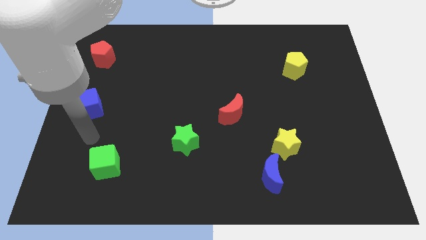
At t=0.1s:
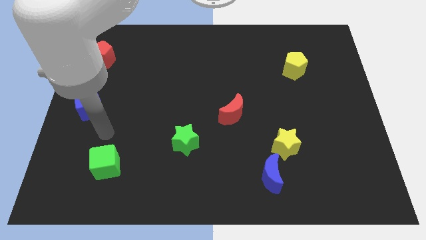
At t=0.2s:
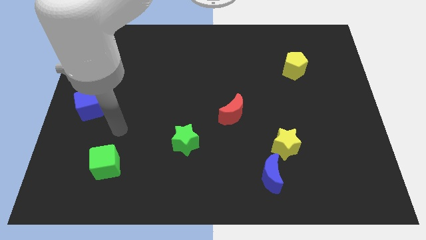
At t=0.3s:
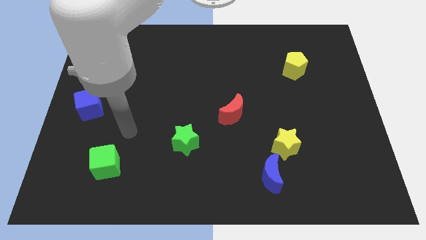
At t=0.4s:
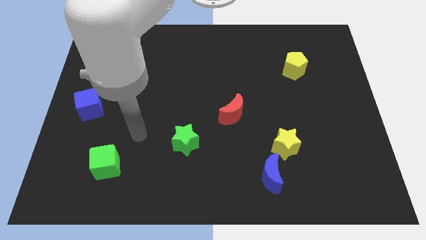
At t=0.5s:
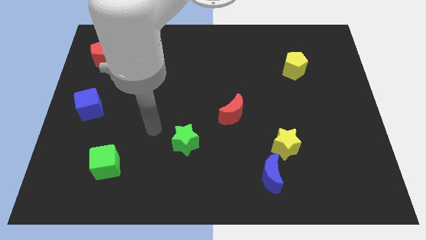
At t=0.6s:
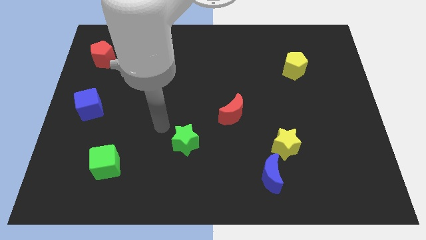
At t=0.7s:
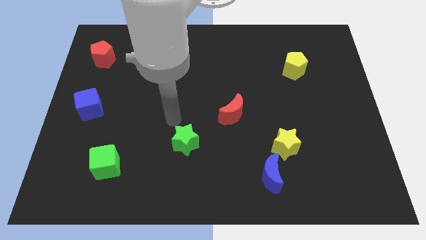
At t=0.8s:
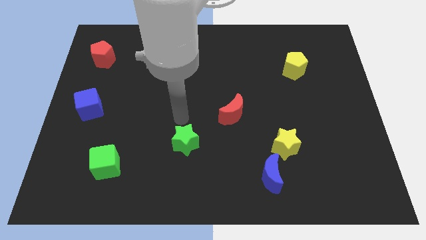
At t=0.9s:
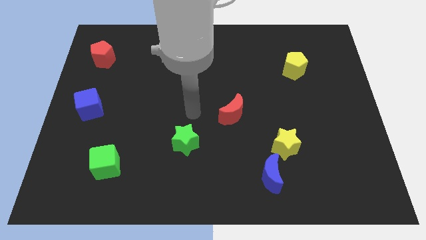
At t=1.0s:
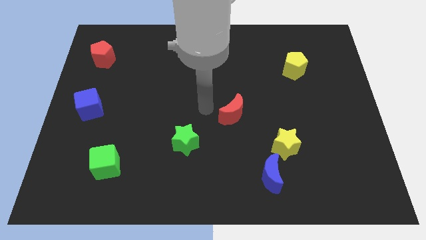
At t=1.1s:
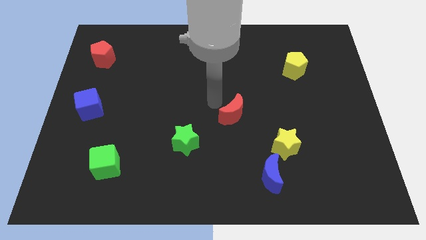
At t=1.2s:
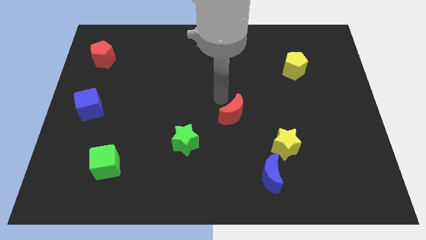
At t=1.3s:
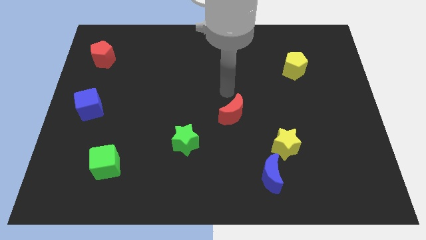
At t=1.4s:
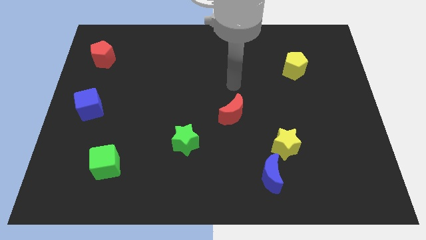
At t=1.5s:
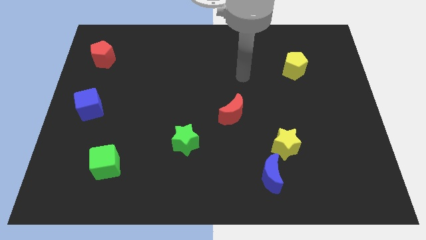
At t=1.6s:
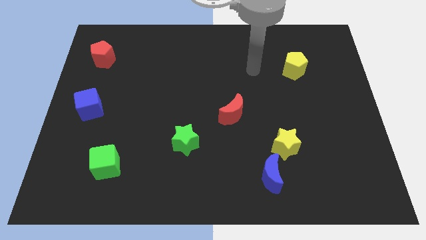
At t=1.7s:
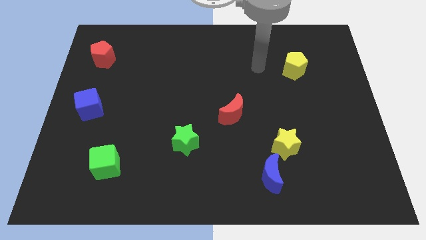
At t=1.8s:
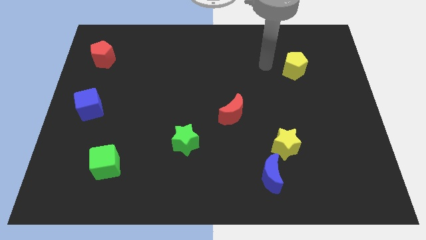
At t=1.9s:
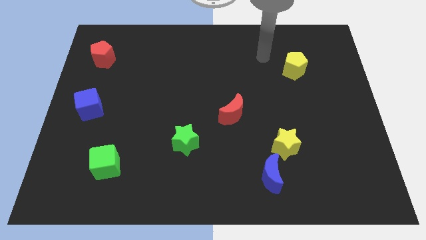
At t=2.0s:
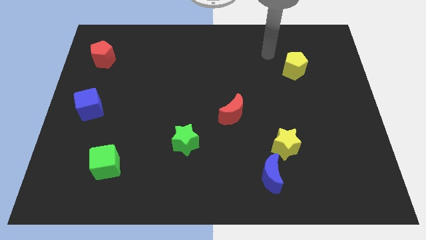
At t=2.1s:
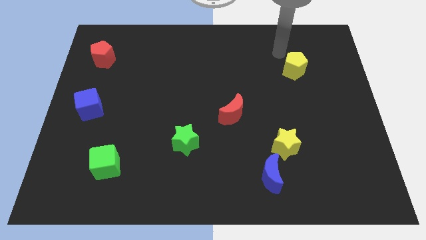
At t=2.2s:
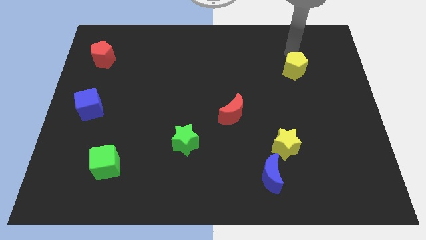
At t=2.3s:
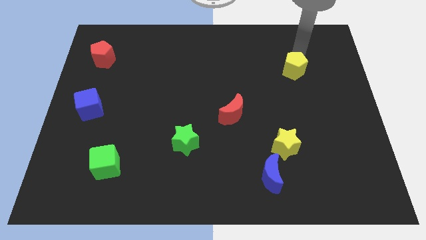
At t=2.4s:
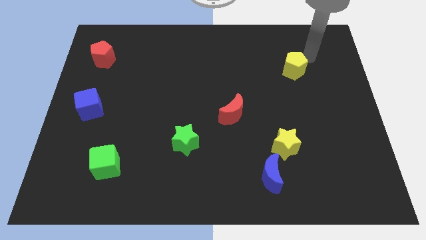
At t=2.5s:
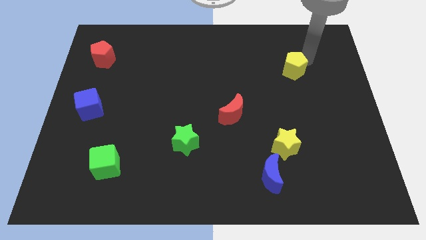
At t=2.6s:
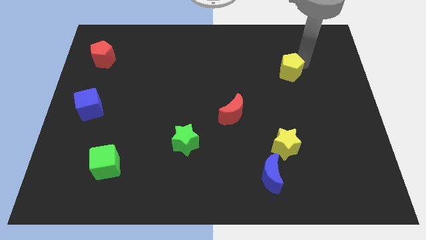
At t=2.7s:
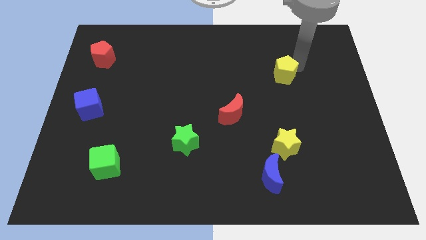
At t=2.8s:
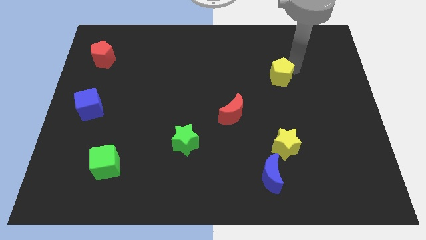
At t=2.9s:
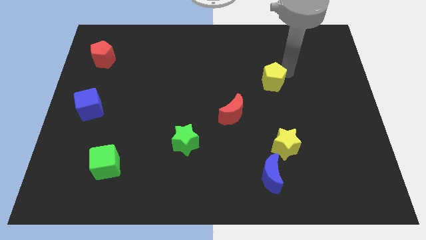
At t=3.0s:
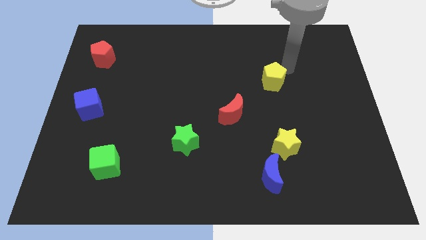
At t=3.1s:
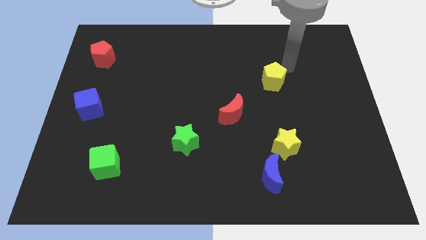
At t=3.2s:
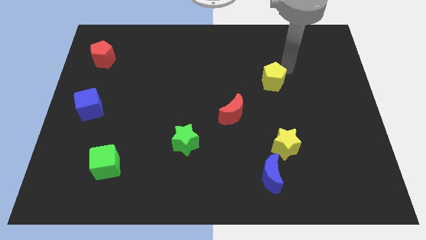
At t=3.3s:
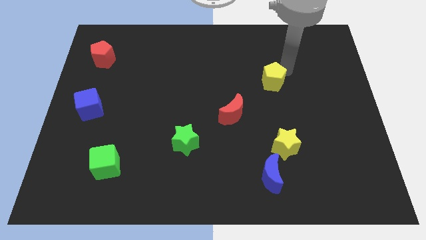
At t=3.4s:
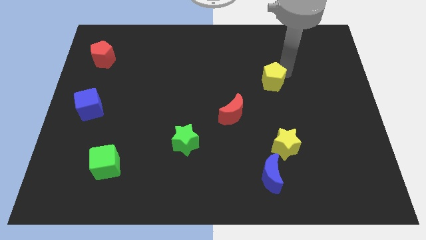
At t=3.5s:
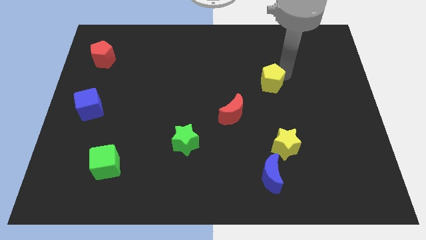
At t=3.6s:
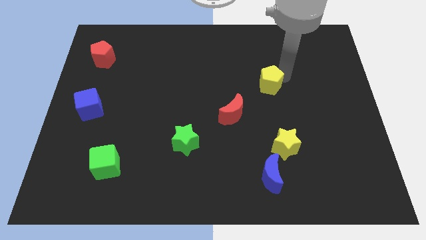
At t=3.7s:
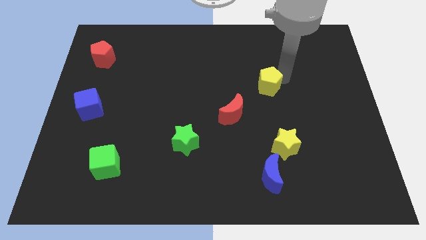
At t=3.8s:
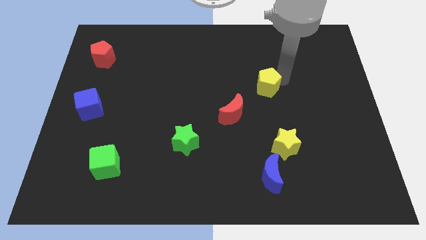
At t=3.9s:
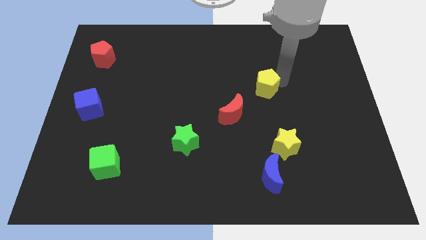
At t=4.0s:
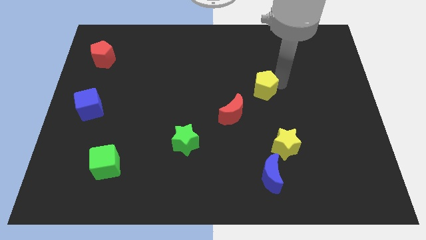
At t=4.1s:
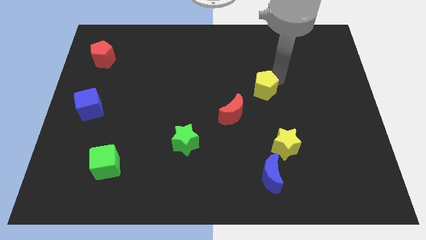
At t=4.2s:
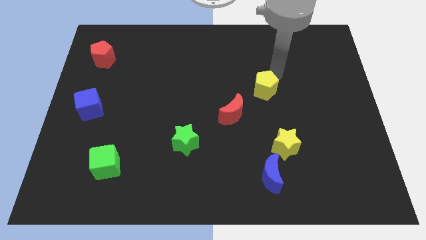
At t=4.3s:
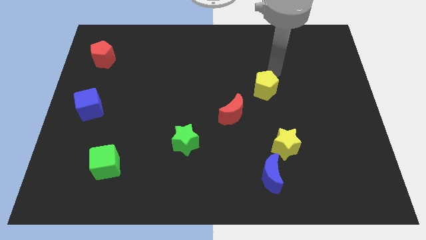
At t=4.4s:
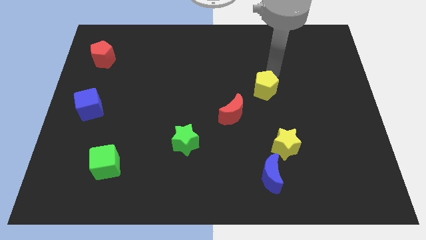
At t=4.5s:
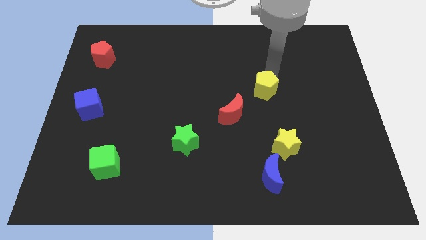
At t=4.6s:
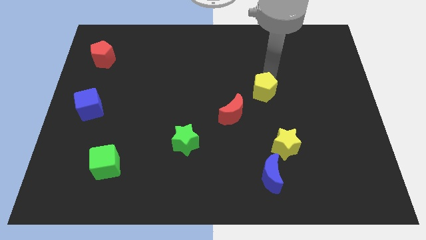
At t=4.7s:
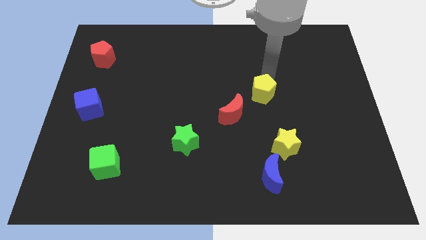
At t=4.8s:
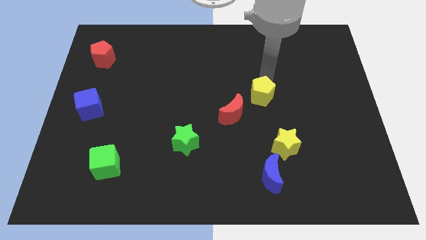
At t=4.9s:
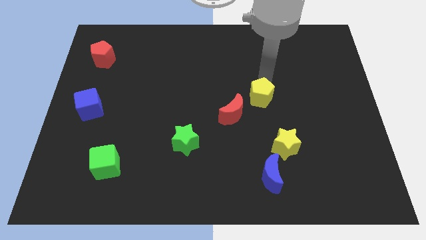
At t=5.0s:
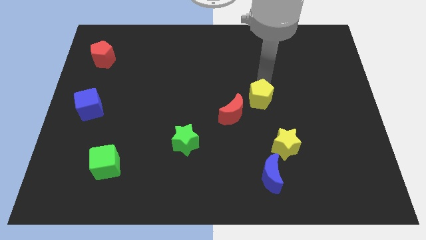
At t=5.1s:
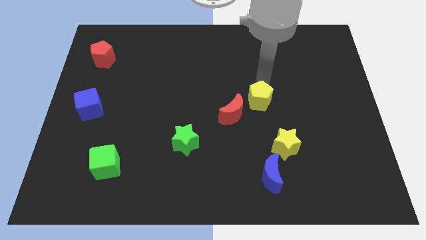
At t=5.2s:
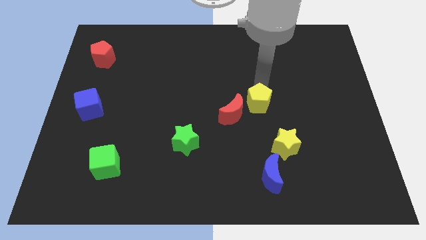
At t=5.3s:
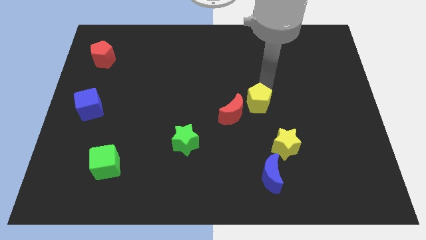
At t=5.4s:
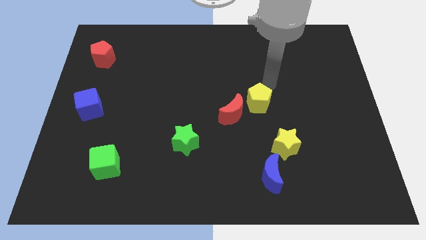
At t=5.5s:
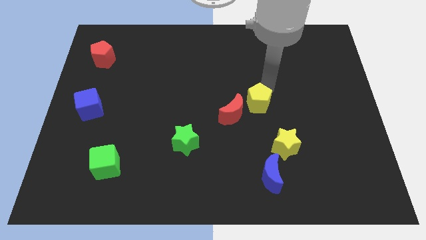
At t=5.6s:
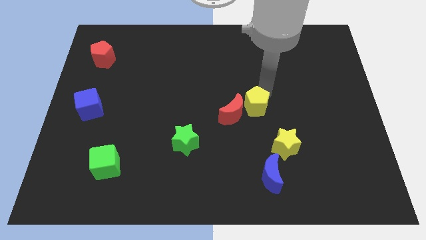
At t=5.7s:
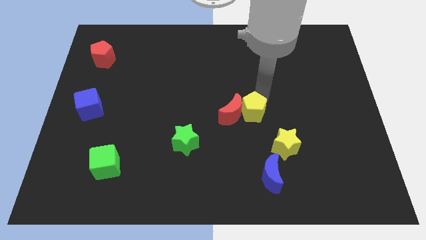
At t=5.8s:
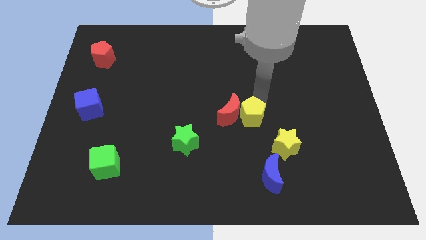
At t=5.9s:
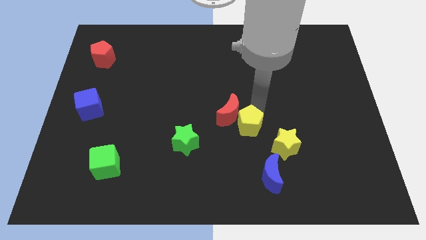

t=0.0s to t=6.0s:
move the yellow pentagon down and to the left diagonally

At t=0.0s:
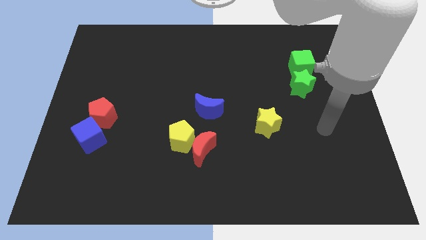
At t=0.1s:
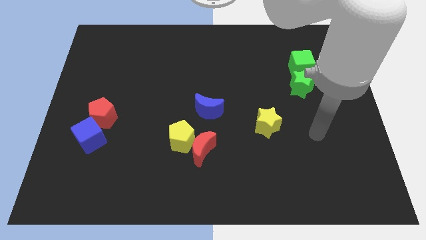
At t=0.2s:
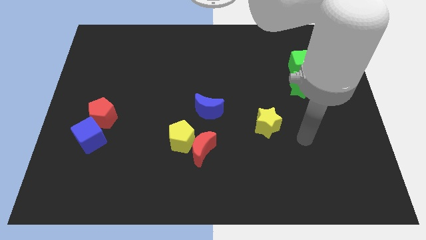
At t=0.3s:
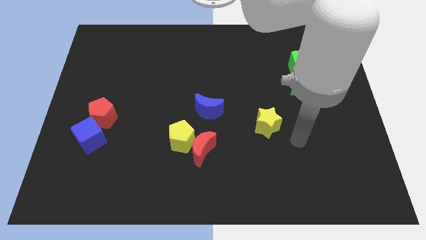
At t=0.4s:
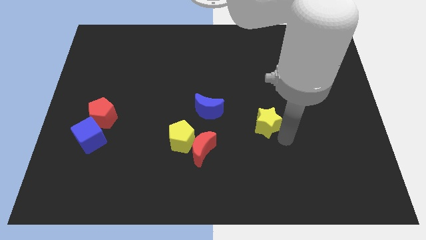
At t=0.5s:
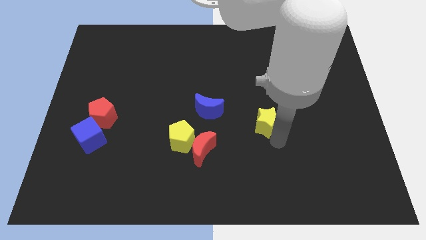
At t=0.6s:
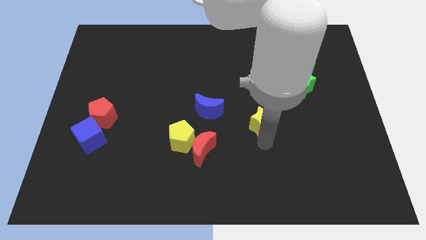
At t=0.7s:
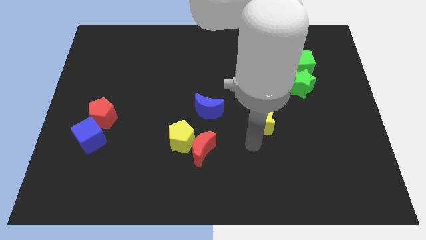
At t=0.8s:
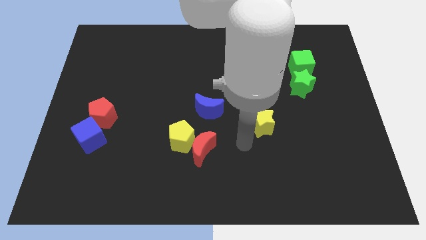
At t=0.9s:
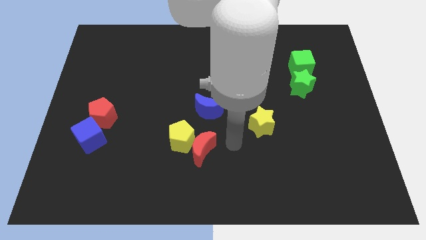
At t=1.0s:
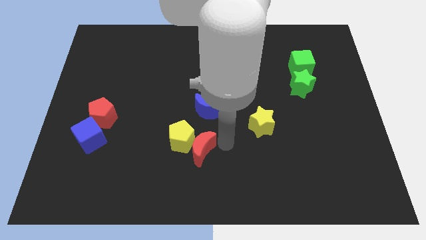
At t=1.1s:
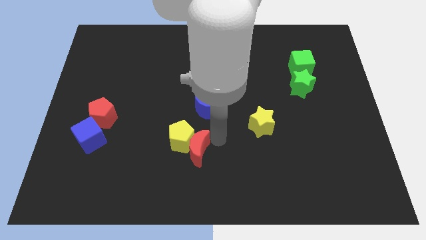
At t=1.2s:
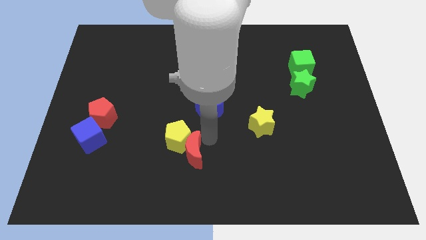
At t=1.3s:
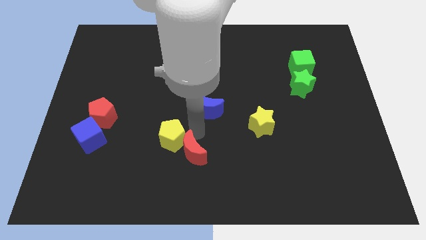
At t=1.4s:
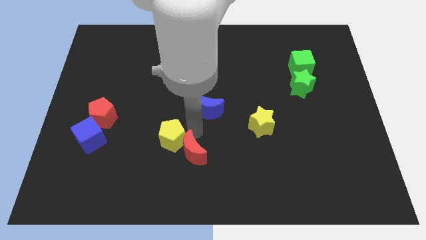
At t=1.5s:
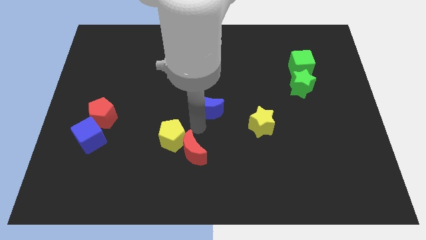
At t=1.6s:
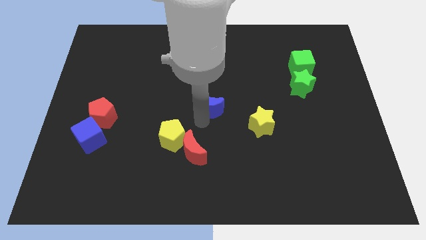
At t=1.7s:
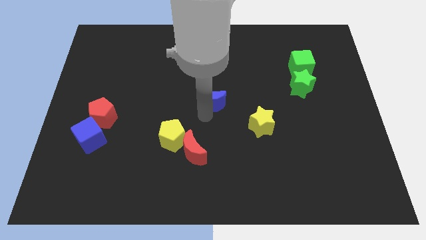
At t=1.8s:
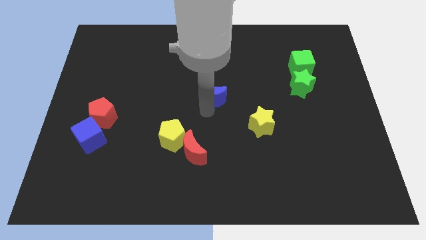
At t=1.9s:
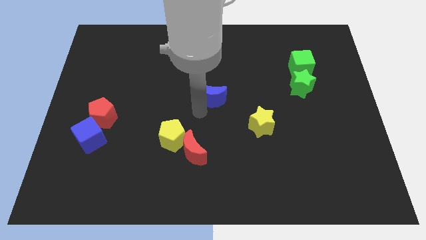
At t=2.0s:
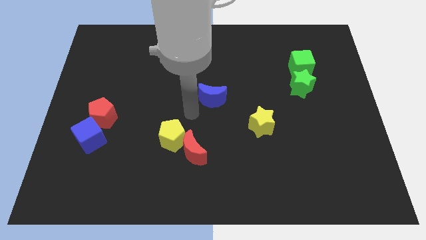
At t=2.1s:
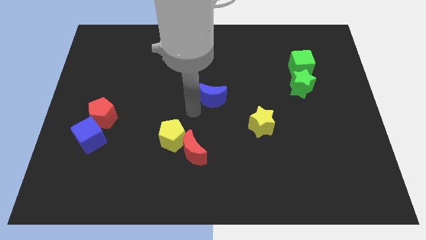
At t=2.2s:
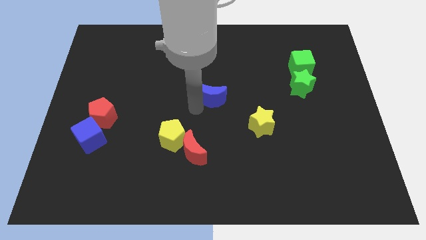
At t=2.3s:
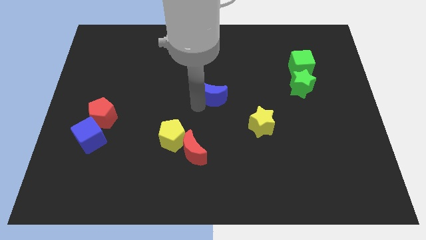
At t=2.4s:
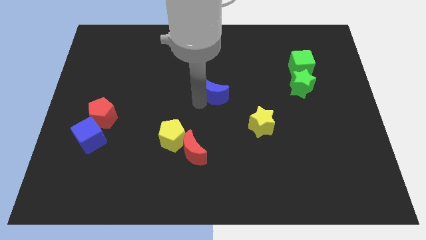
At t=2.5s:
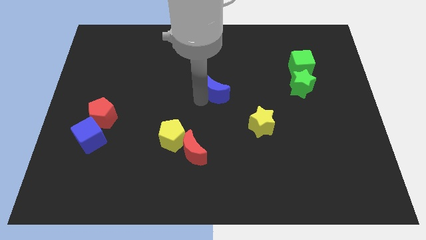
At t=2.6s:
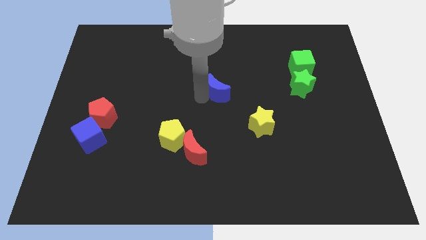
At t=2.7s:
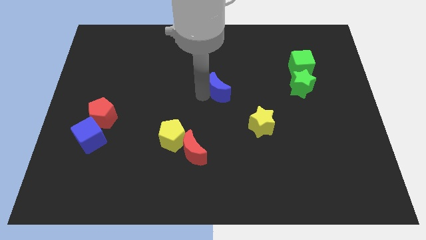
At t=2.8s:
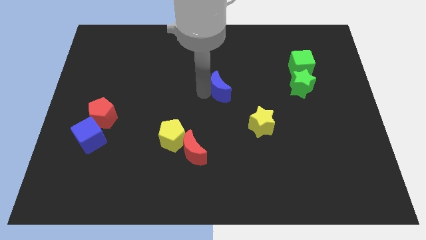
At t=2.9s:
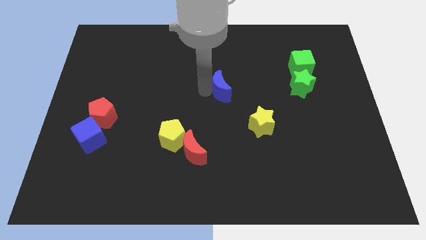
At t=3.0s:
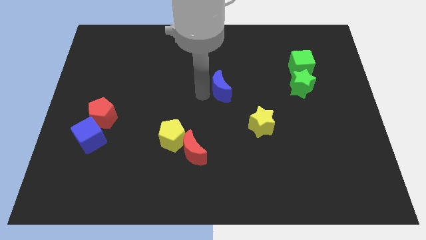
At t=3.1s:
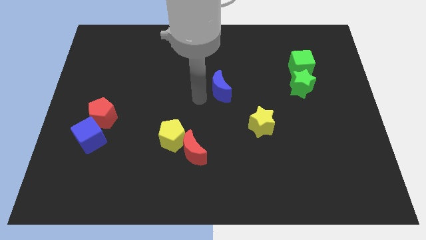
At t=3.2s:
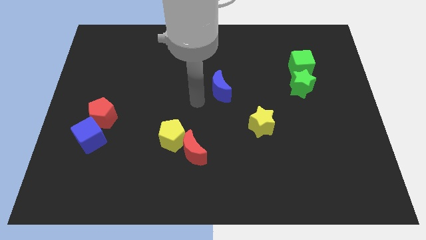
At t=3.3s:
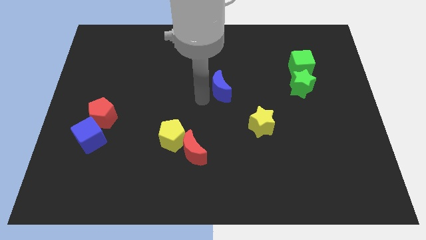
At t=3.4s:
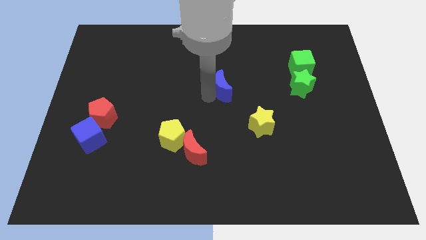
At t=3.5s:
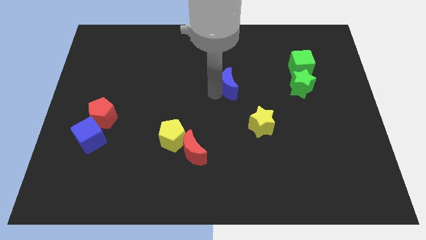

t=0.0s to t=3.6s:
push the blue moon slightly upwards and to the right
